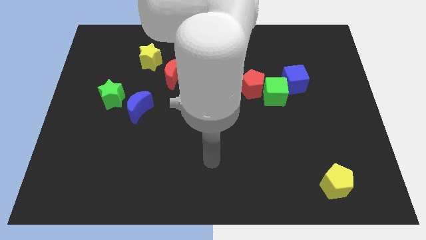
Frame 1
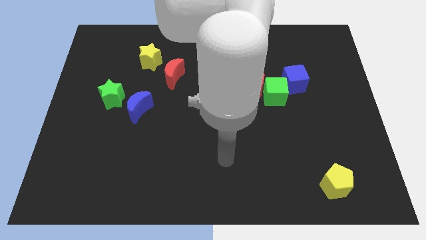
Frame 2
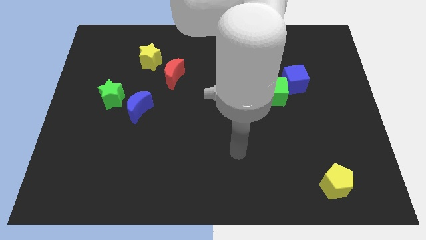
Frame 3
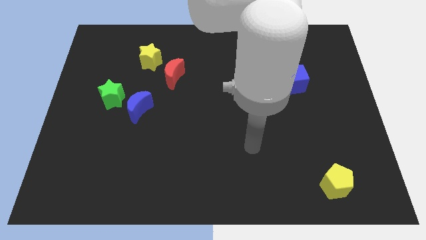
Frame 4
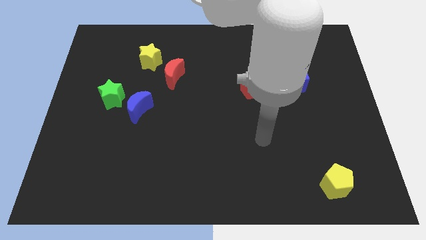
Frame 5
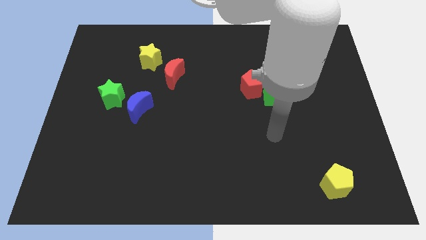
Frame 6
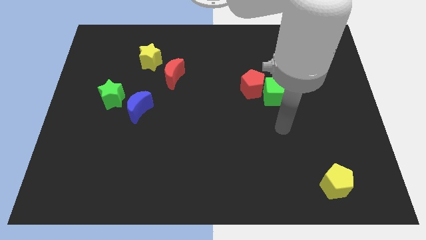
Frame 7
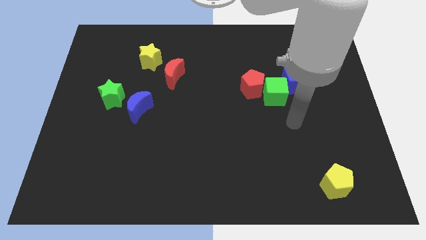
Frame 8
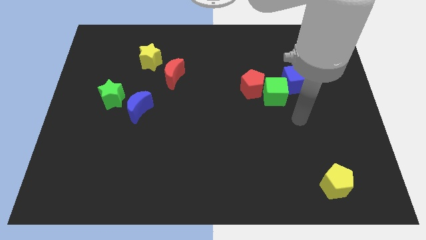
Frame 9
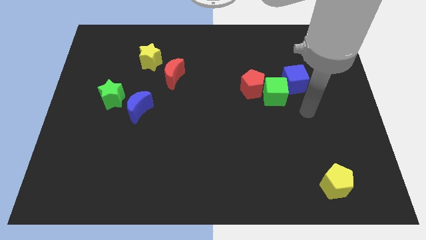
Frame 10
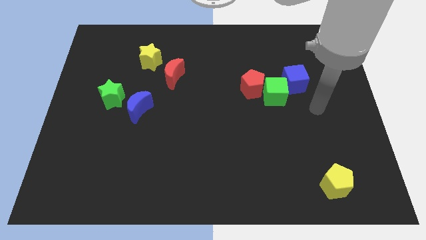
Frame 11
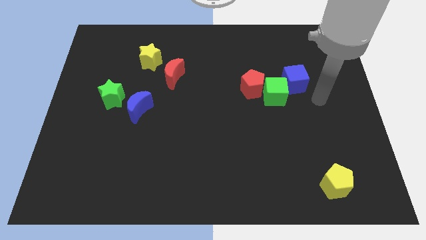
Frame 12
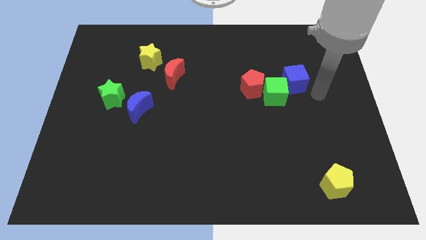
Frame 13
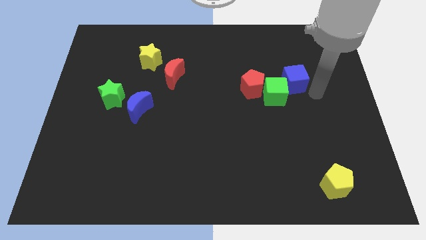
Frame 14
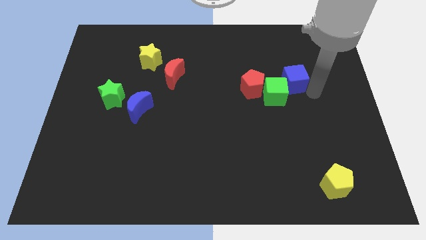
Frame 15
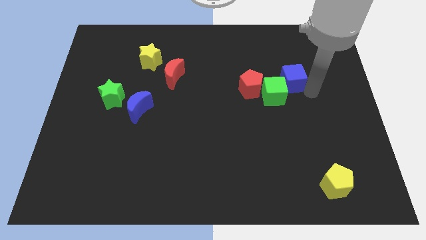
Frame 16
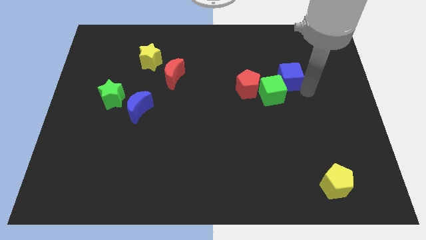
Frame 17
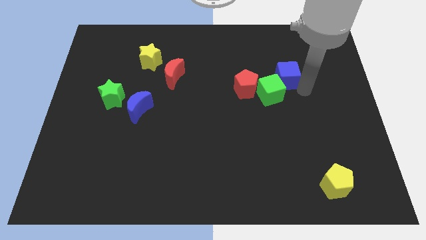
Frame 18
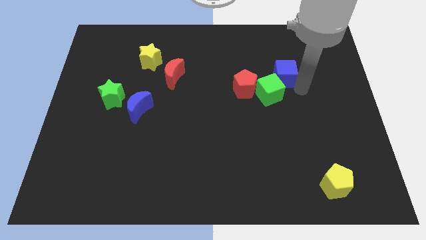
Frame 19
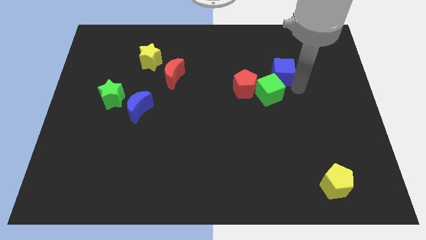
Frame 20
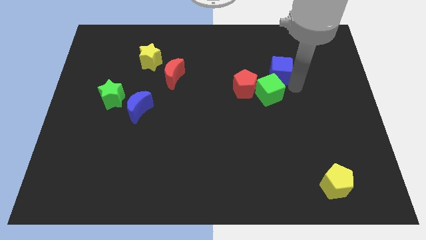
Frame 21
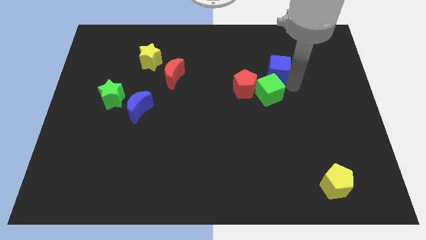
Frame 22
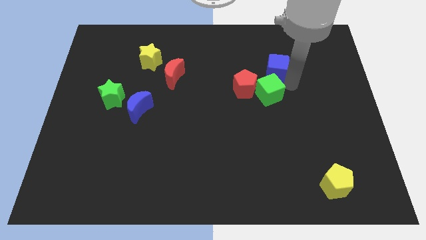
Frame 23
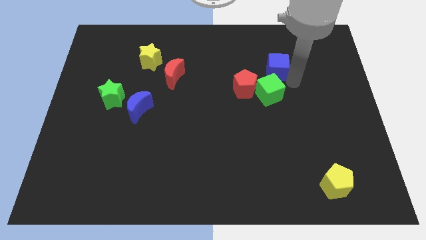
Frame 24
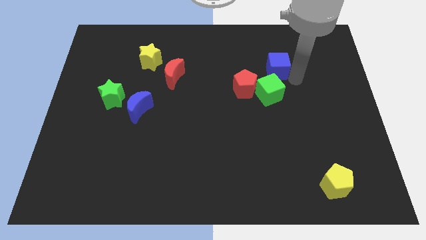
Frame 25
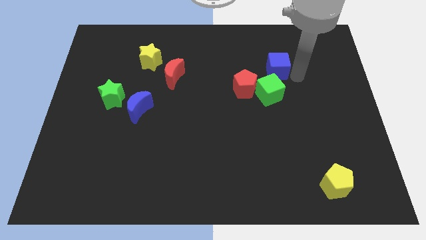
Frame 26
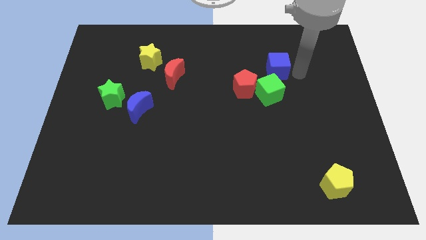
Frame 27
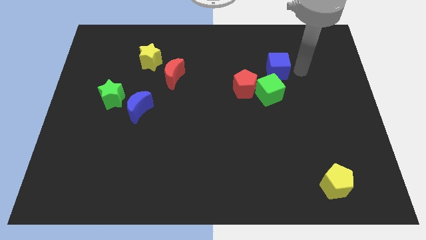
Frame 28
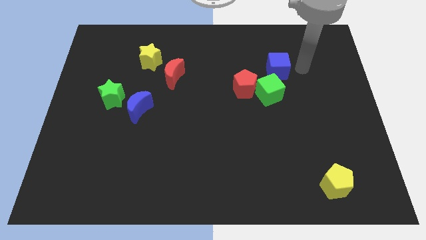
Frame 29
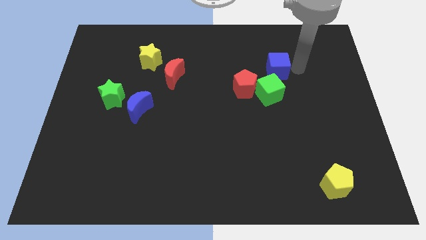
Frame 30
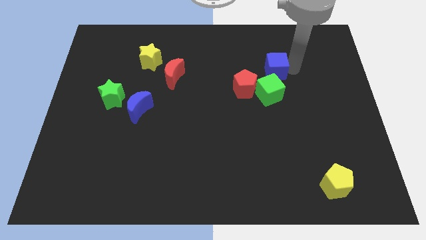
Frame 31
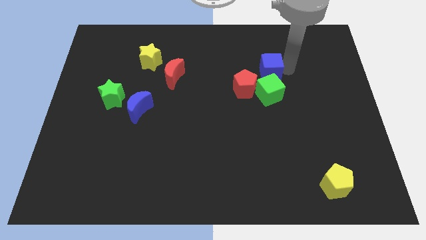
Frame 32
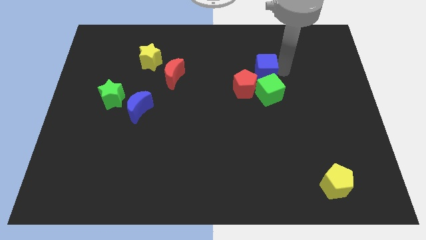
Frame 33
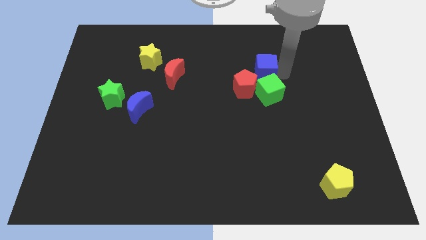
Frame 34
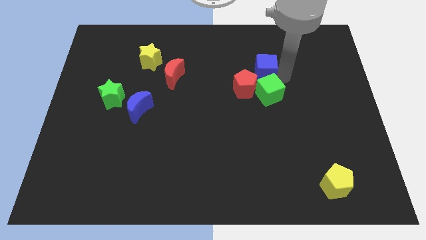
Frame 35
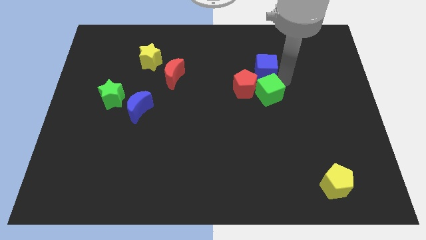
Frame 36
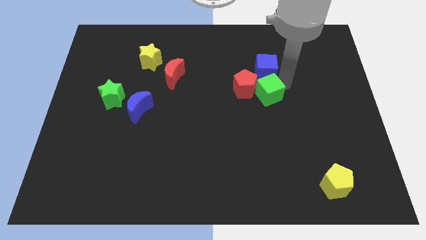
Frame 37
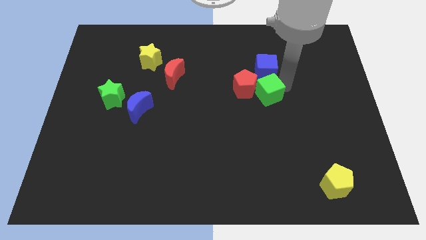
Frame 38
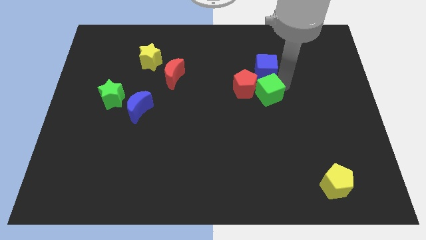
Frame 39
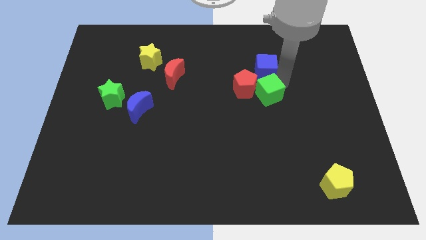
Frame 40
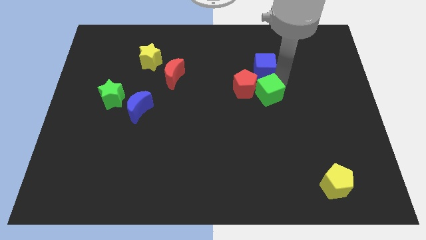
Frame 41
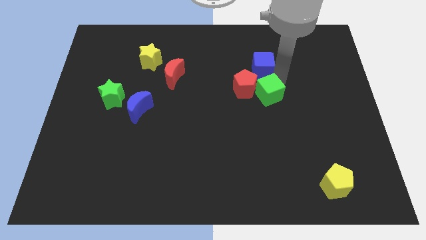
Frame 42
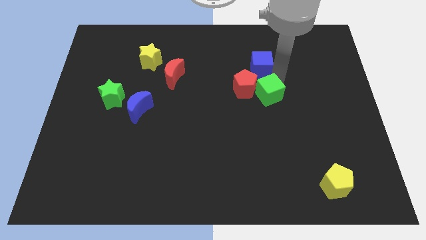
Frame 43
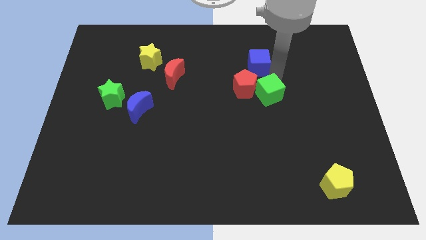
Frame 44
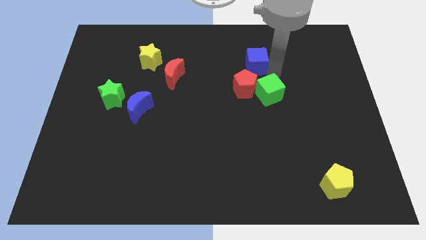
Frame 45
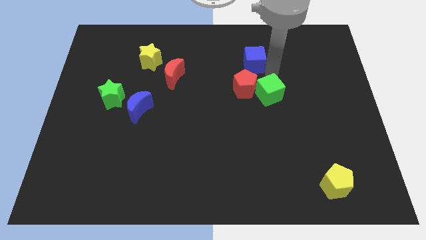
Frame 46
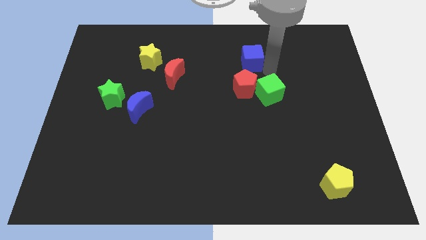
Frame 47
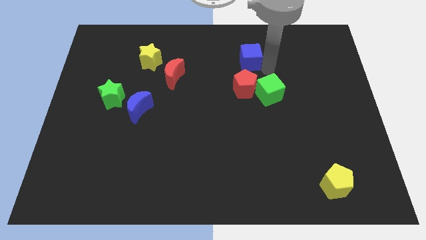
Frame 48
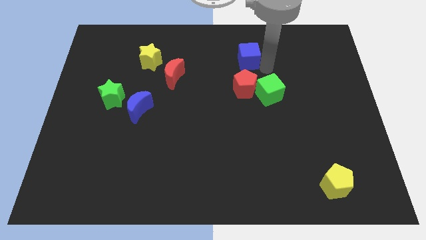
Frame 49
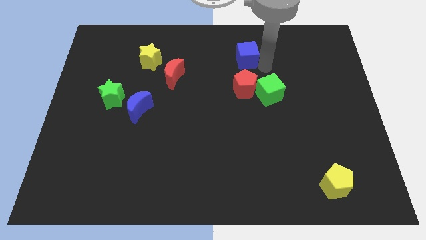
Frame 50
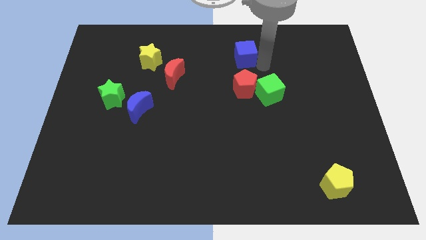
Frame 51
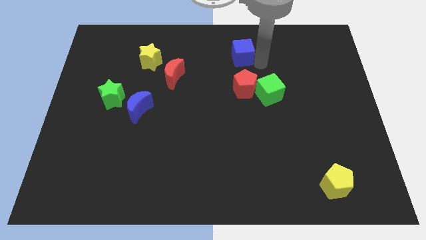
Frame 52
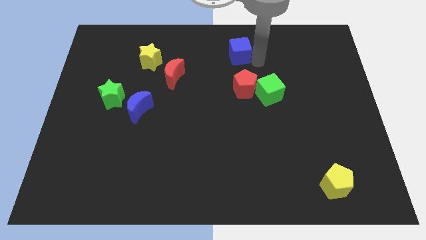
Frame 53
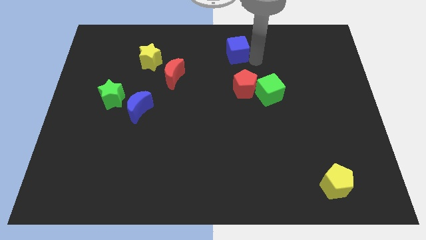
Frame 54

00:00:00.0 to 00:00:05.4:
move the blue cube to the top side
